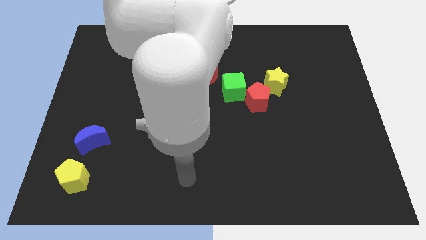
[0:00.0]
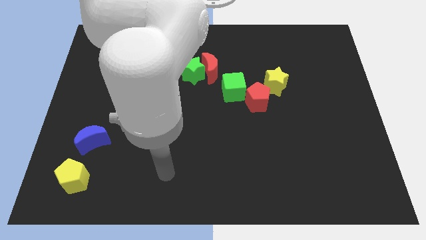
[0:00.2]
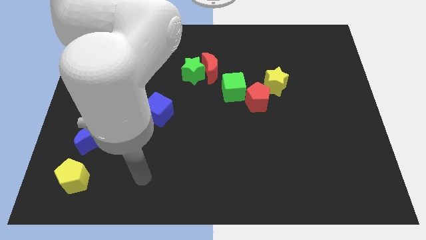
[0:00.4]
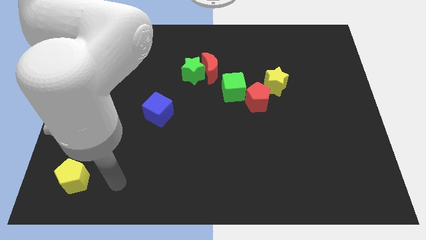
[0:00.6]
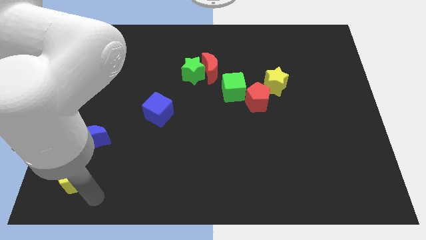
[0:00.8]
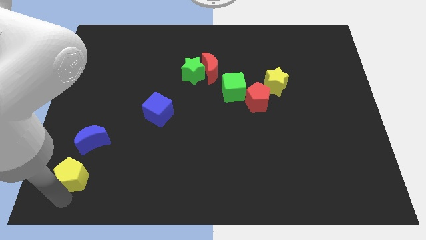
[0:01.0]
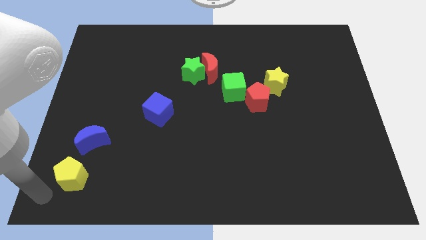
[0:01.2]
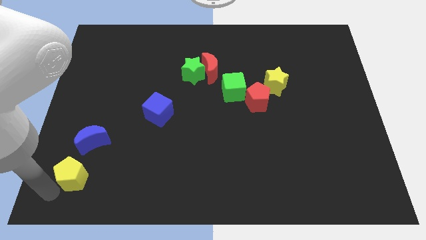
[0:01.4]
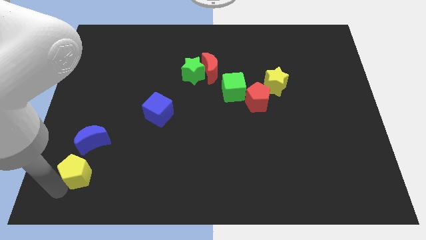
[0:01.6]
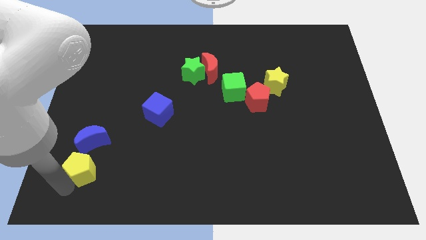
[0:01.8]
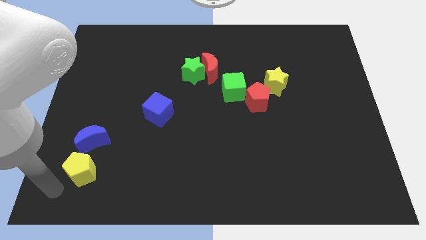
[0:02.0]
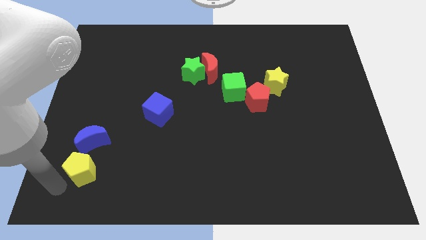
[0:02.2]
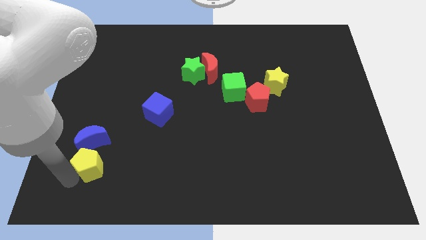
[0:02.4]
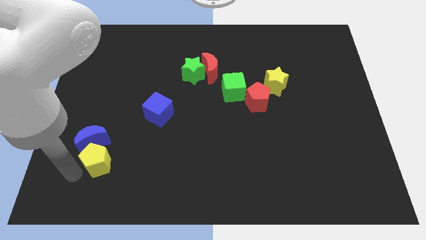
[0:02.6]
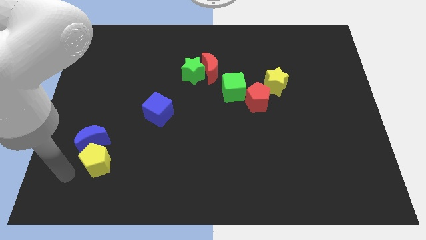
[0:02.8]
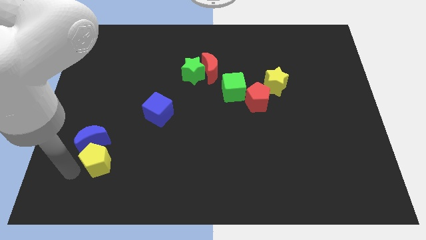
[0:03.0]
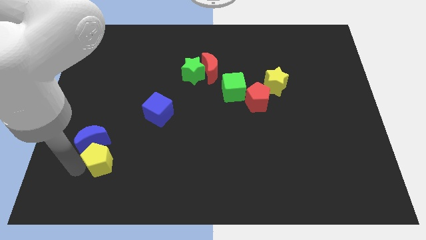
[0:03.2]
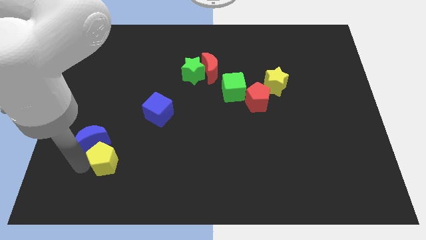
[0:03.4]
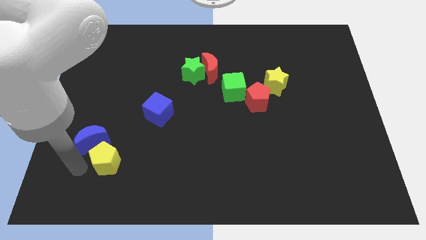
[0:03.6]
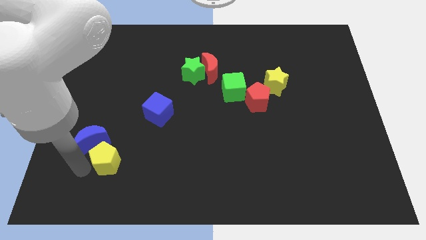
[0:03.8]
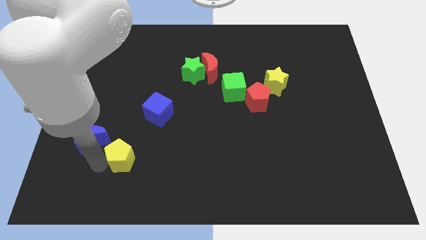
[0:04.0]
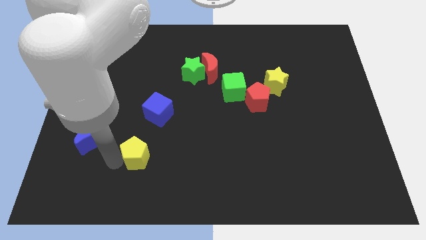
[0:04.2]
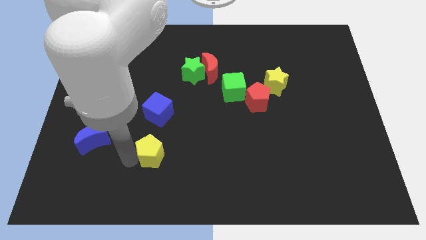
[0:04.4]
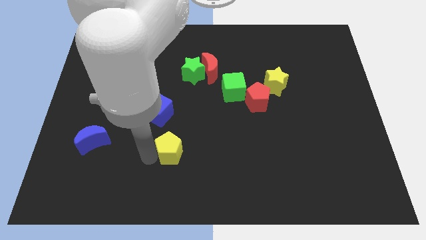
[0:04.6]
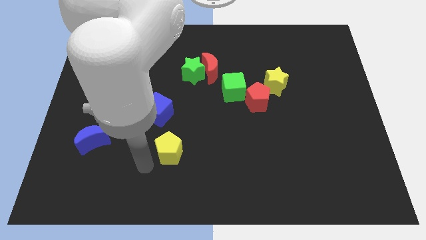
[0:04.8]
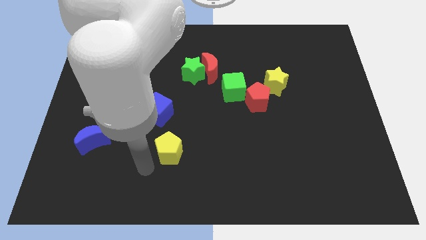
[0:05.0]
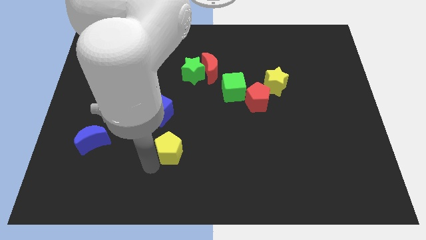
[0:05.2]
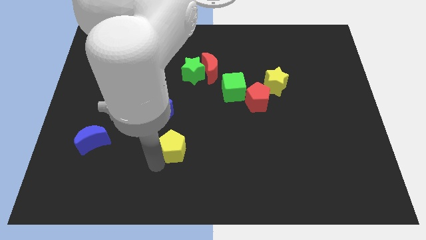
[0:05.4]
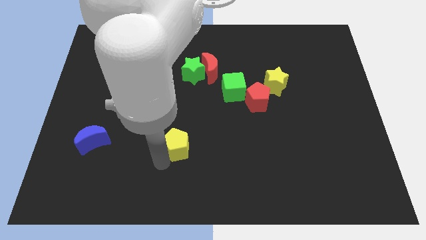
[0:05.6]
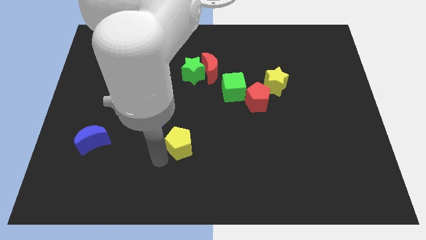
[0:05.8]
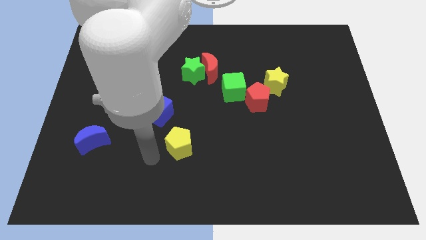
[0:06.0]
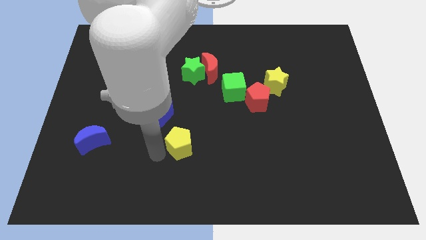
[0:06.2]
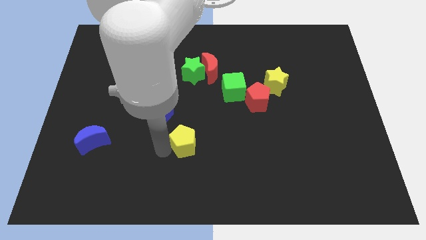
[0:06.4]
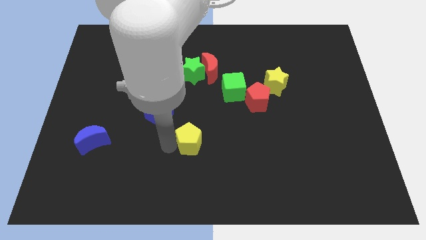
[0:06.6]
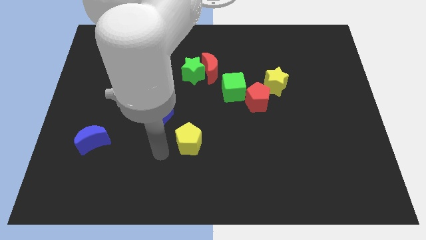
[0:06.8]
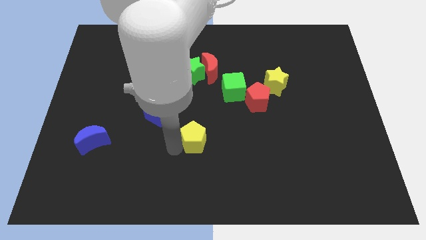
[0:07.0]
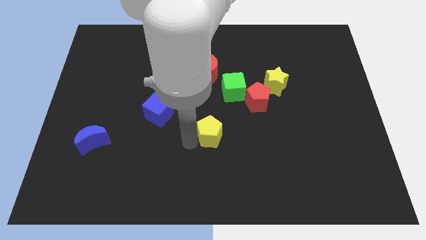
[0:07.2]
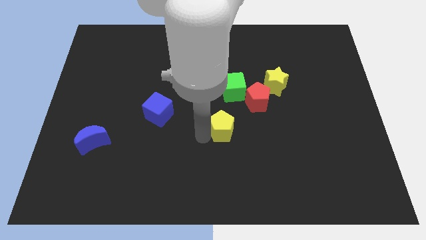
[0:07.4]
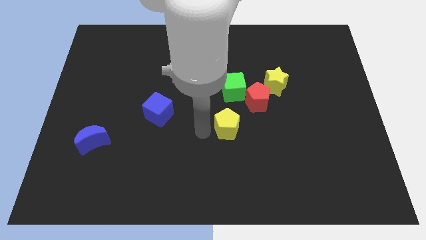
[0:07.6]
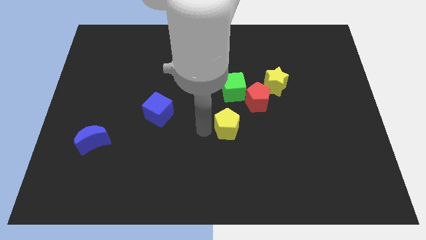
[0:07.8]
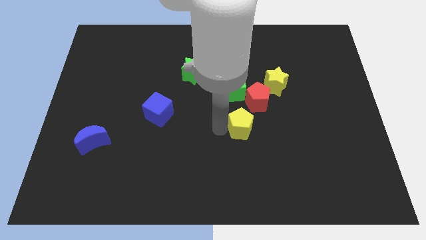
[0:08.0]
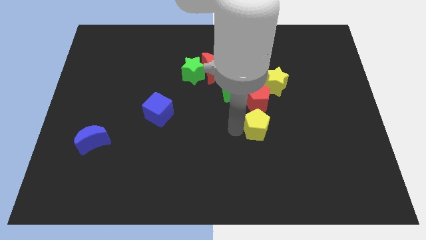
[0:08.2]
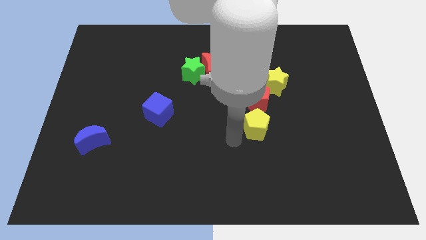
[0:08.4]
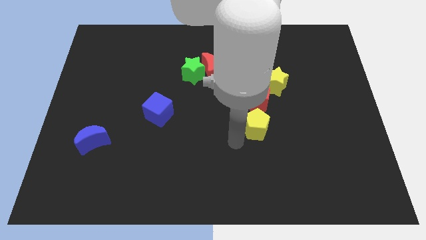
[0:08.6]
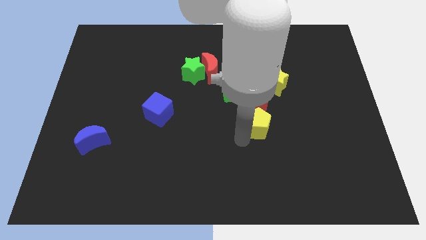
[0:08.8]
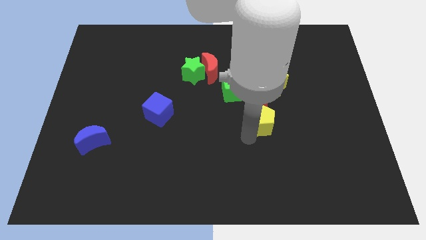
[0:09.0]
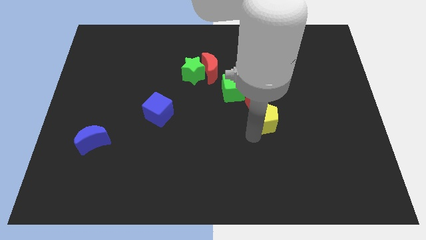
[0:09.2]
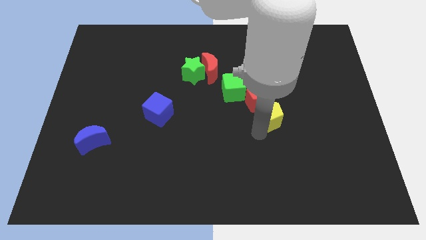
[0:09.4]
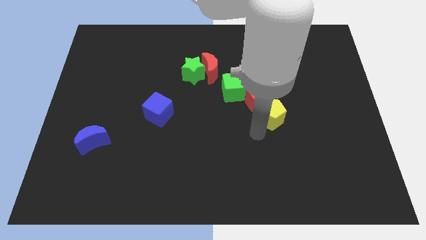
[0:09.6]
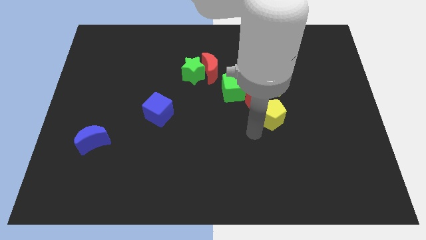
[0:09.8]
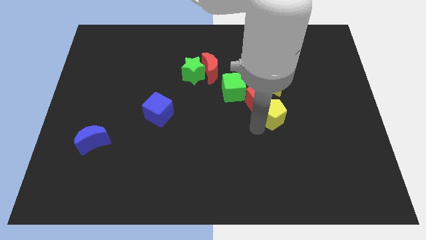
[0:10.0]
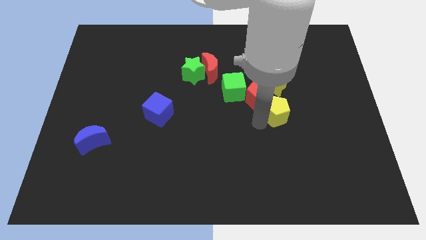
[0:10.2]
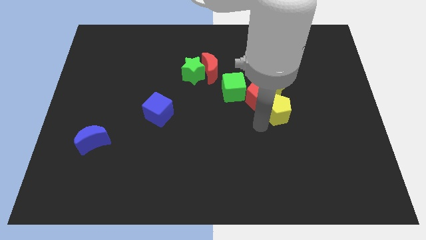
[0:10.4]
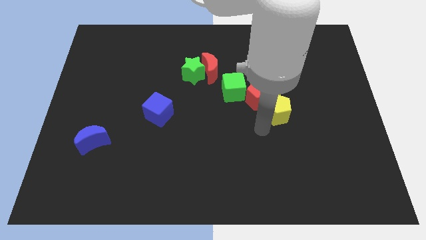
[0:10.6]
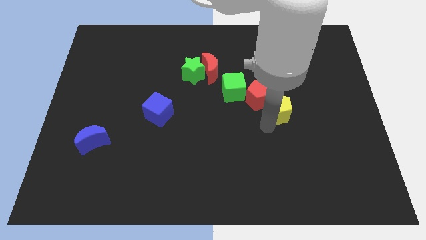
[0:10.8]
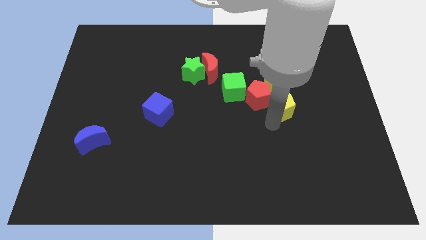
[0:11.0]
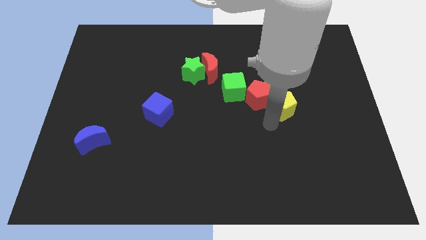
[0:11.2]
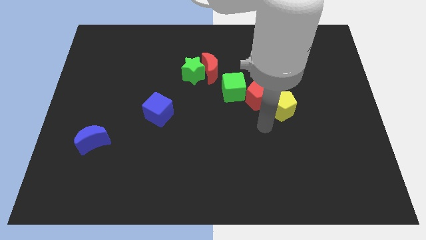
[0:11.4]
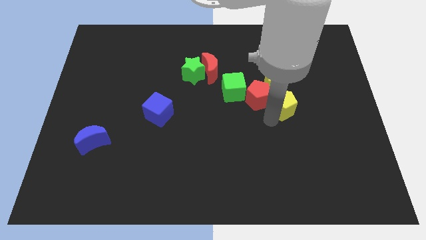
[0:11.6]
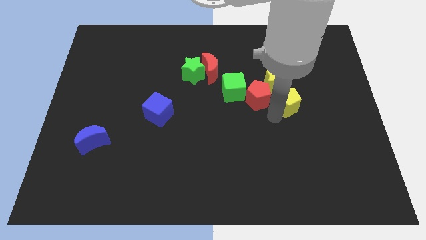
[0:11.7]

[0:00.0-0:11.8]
push the yellow pentagon to the right side of the green cube
